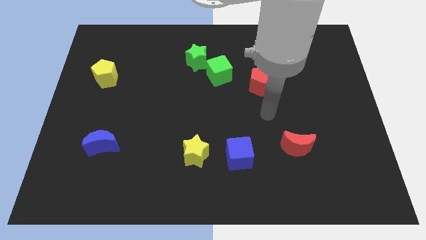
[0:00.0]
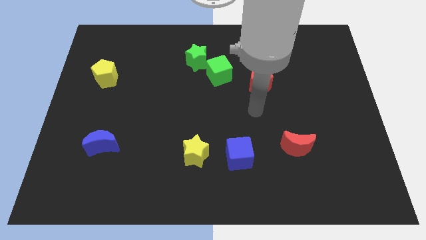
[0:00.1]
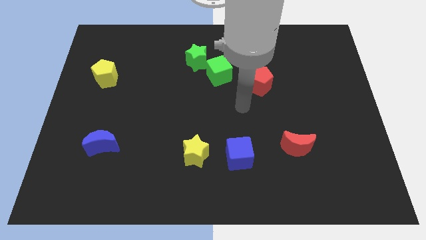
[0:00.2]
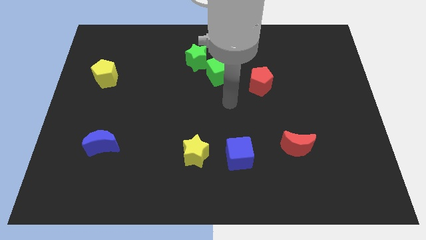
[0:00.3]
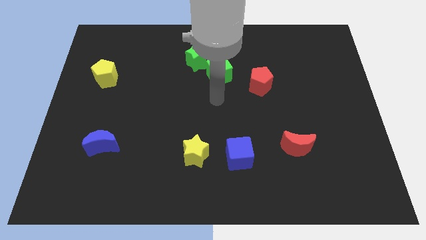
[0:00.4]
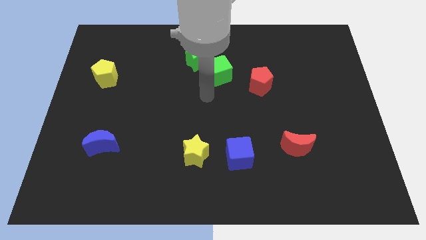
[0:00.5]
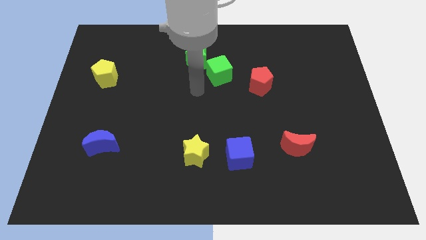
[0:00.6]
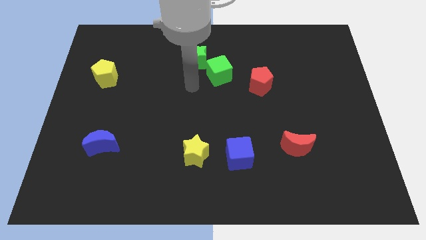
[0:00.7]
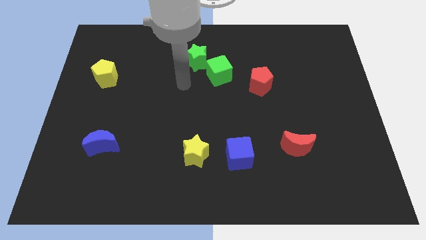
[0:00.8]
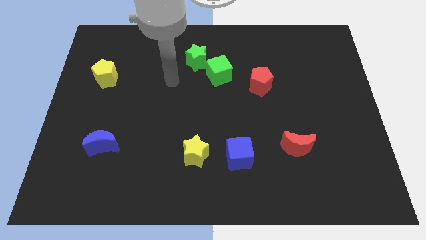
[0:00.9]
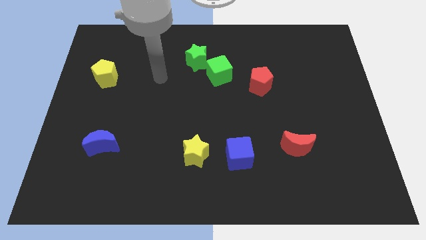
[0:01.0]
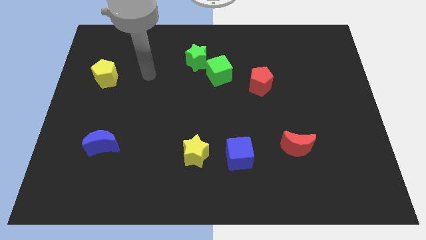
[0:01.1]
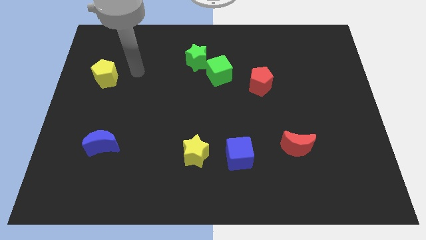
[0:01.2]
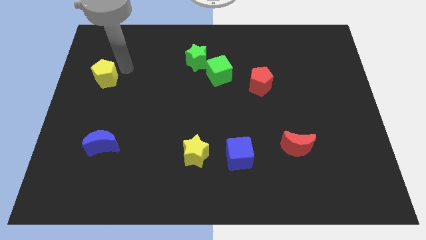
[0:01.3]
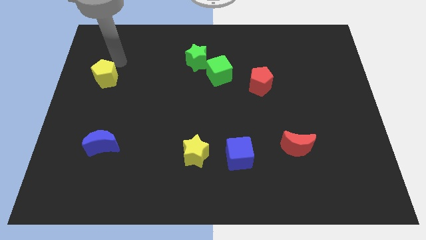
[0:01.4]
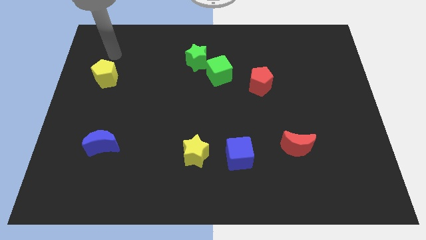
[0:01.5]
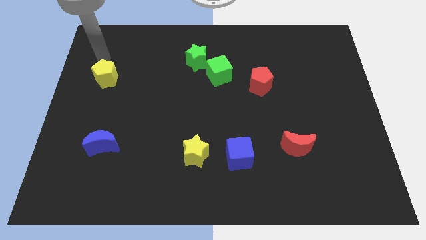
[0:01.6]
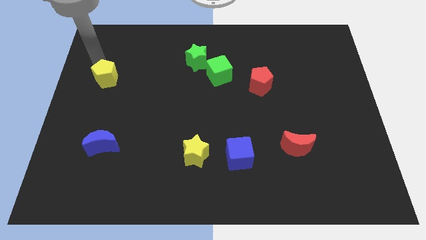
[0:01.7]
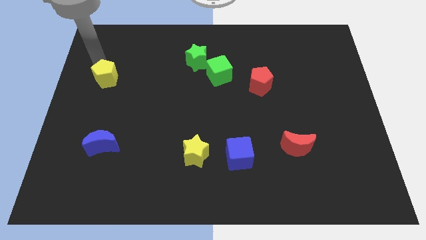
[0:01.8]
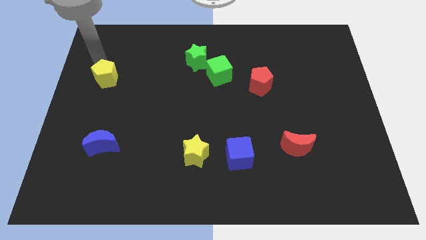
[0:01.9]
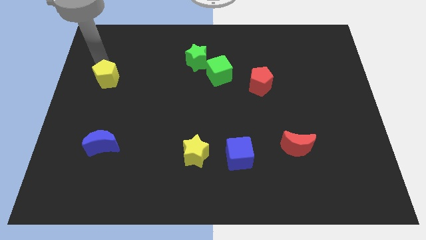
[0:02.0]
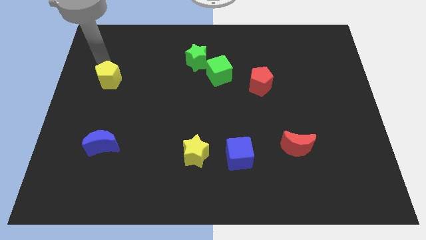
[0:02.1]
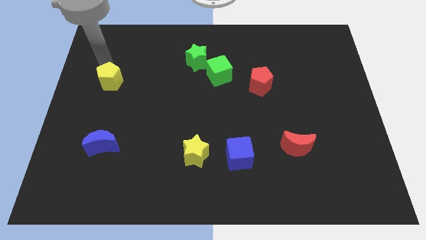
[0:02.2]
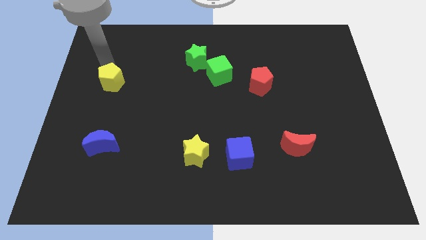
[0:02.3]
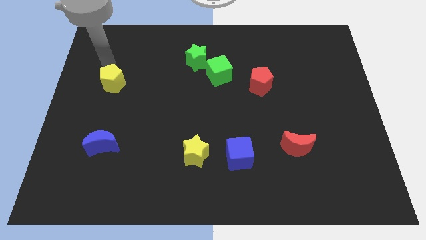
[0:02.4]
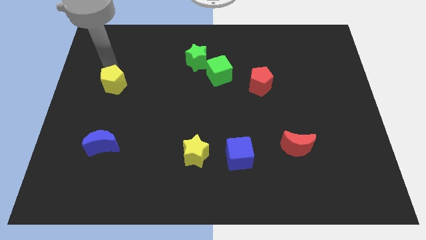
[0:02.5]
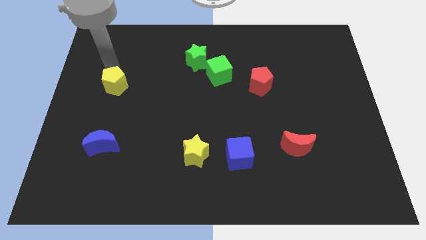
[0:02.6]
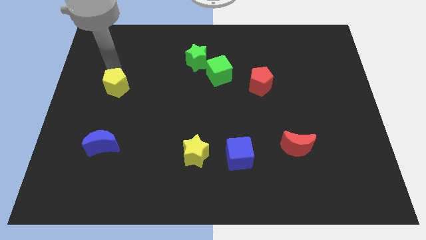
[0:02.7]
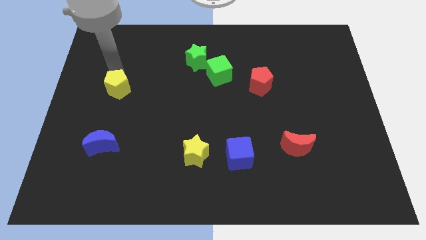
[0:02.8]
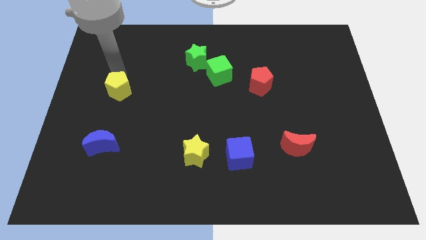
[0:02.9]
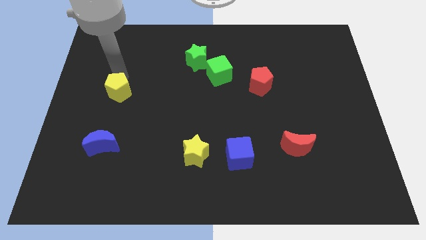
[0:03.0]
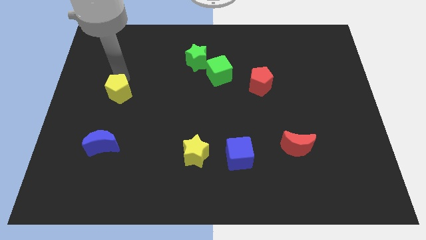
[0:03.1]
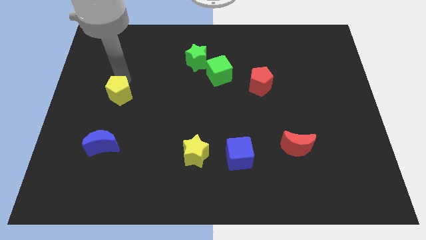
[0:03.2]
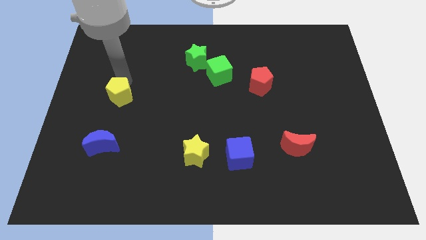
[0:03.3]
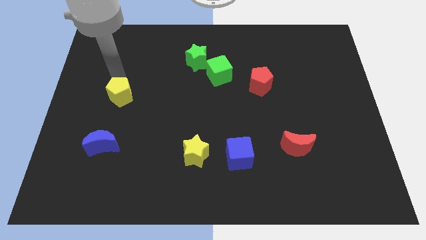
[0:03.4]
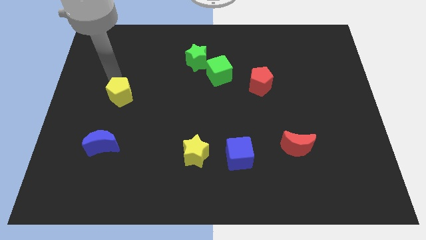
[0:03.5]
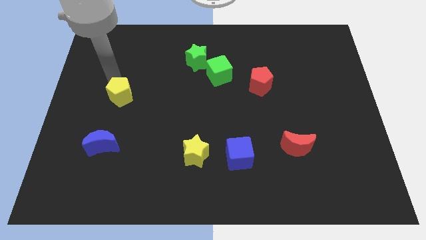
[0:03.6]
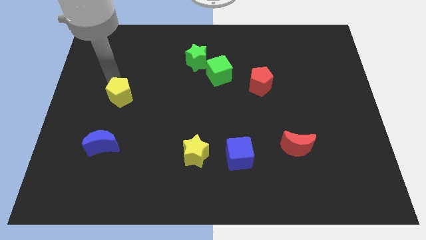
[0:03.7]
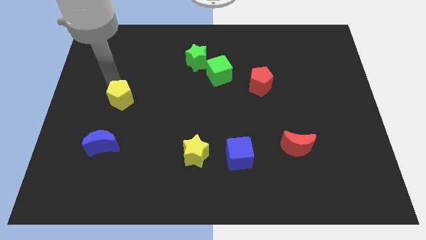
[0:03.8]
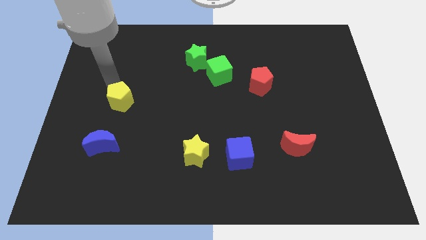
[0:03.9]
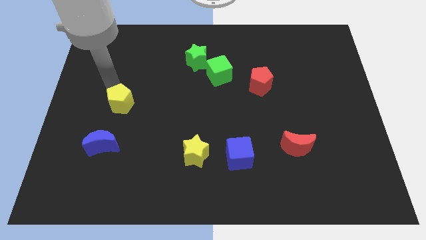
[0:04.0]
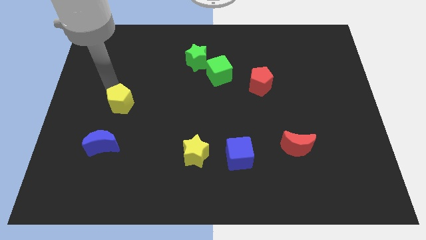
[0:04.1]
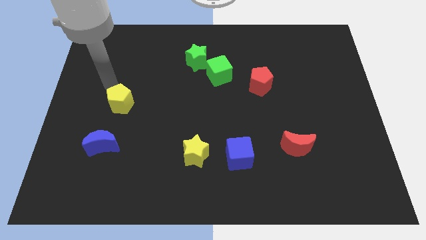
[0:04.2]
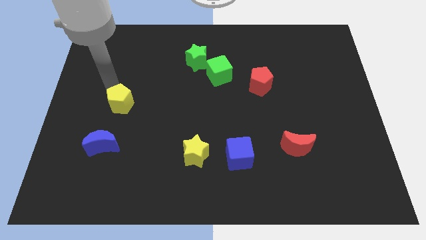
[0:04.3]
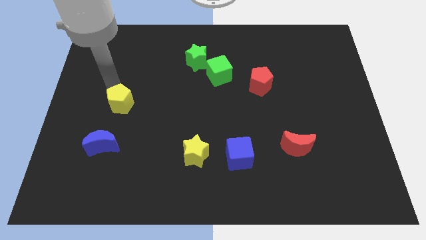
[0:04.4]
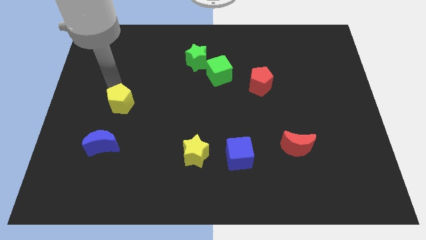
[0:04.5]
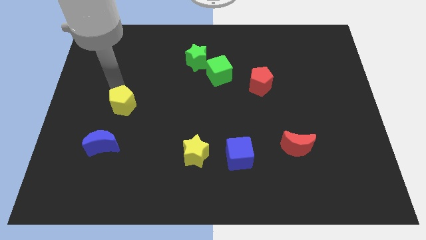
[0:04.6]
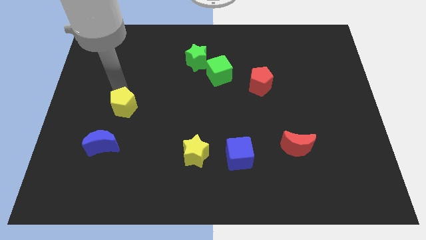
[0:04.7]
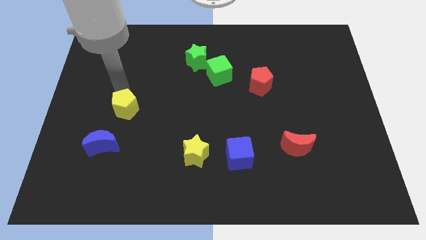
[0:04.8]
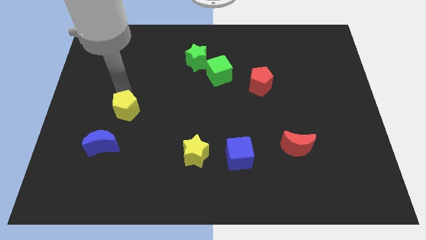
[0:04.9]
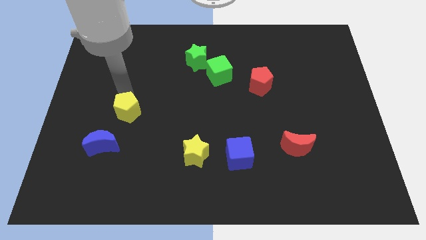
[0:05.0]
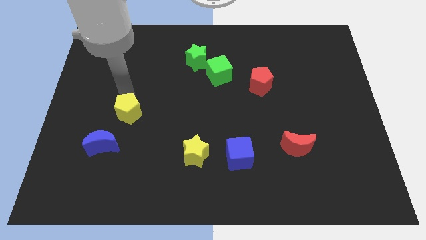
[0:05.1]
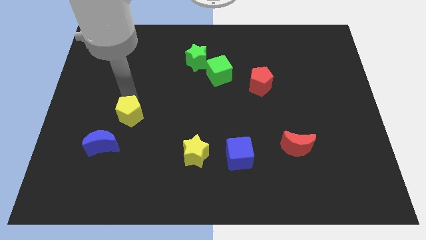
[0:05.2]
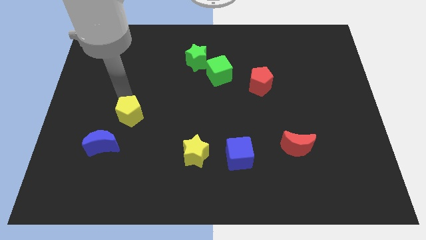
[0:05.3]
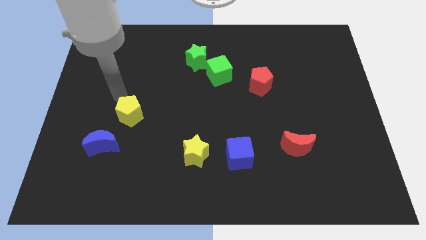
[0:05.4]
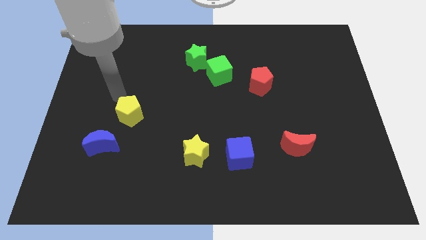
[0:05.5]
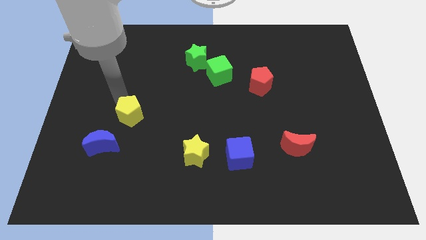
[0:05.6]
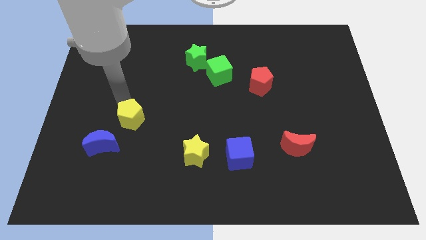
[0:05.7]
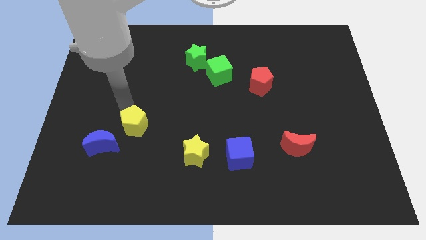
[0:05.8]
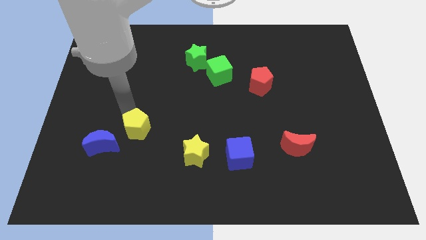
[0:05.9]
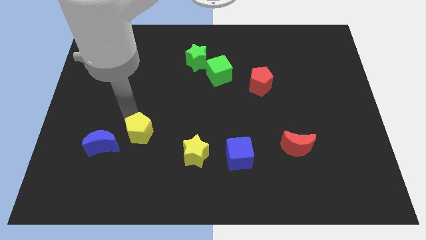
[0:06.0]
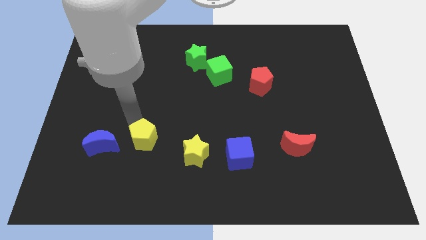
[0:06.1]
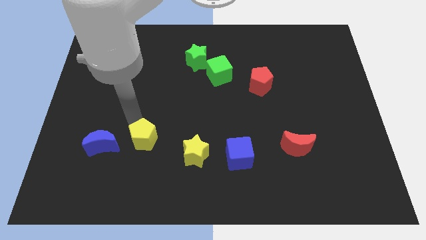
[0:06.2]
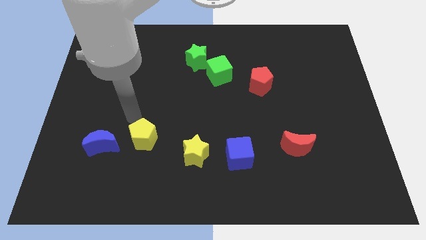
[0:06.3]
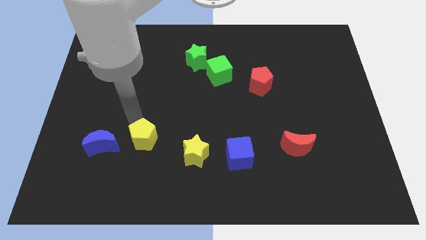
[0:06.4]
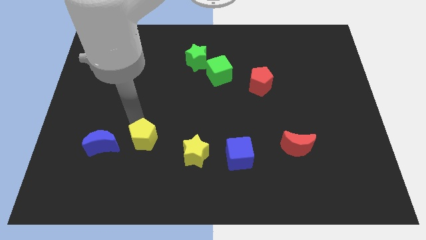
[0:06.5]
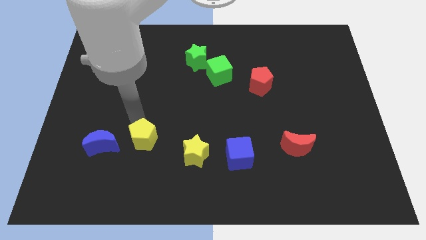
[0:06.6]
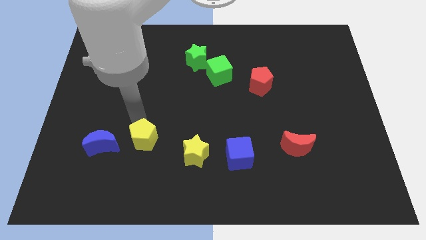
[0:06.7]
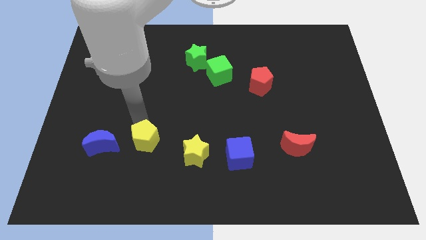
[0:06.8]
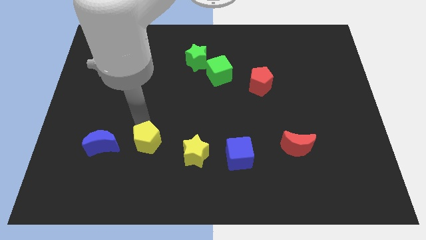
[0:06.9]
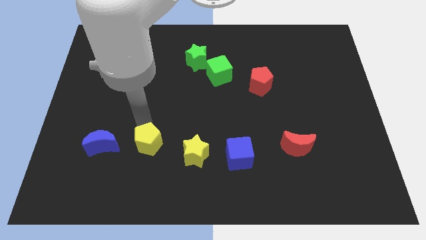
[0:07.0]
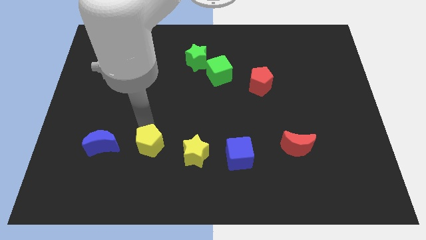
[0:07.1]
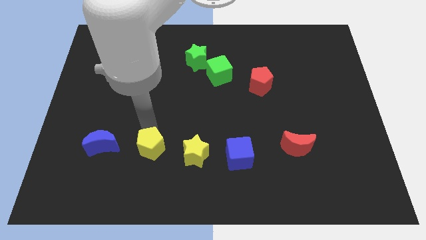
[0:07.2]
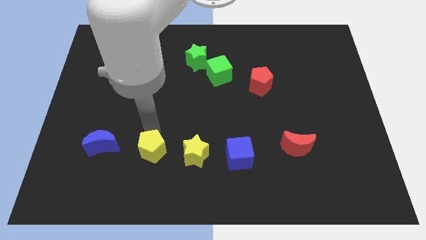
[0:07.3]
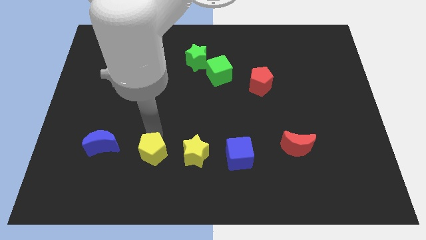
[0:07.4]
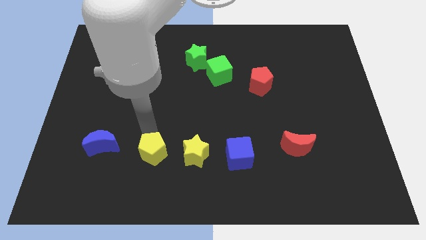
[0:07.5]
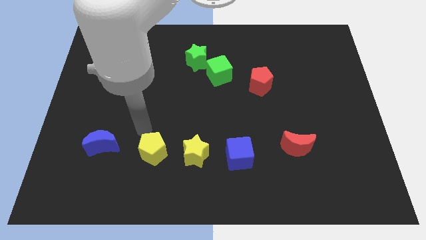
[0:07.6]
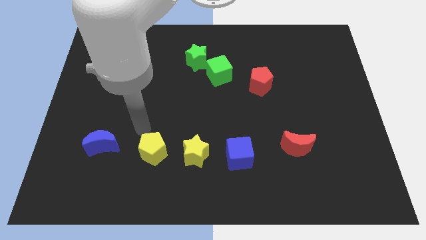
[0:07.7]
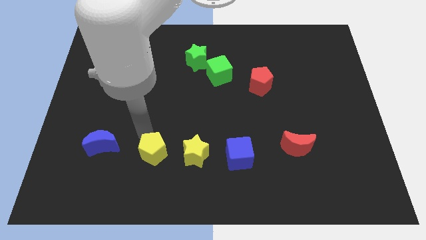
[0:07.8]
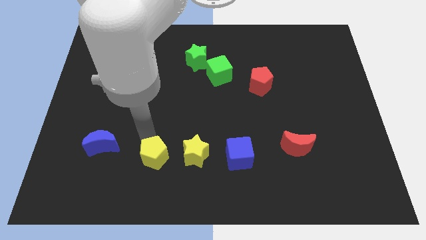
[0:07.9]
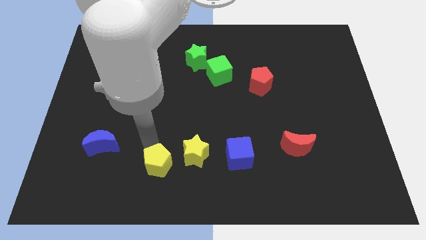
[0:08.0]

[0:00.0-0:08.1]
slide the yellow pentagon diagonally down and to the left of the yellow star

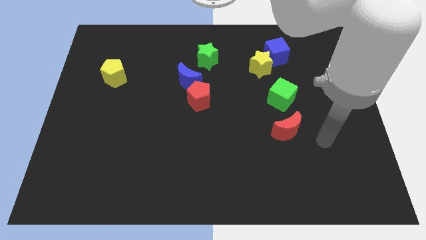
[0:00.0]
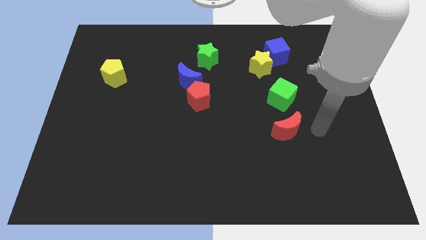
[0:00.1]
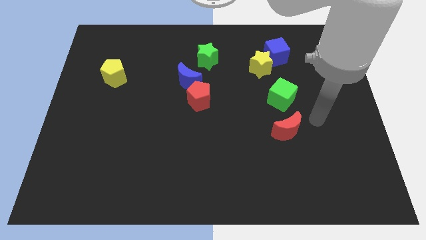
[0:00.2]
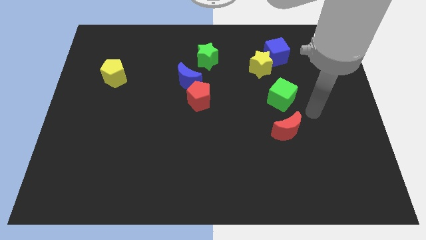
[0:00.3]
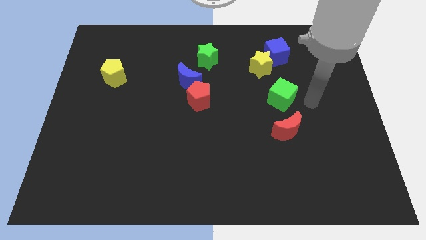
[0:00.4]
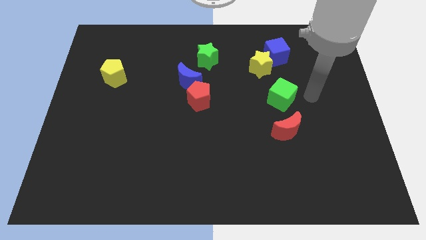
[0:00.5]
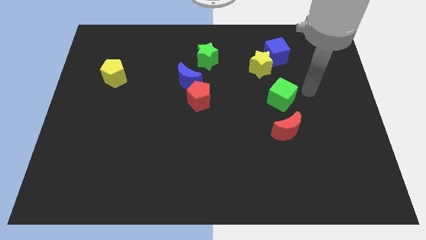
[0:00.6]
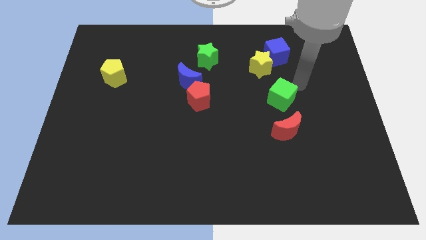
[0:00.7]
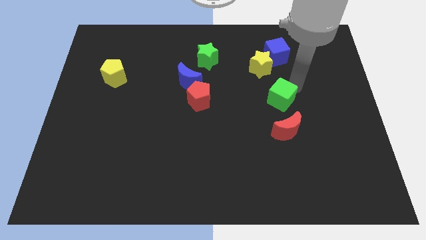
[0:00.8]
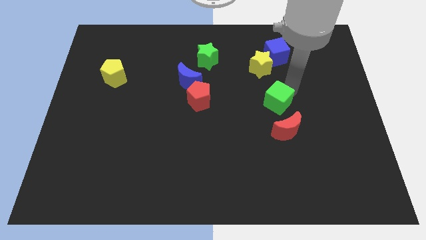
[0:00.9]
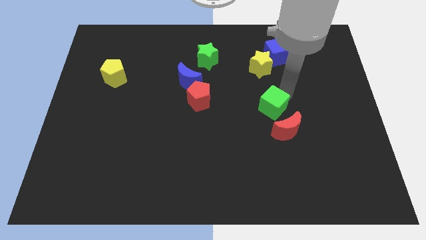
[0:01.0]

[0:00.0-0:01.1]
push the green cube to the top left of the red moon
